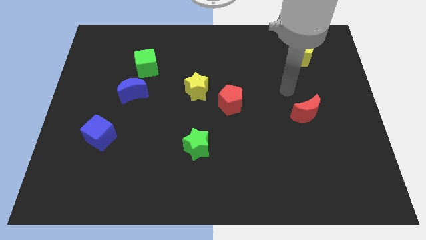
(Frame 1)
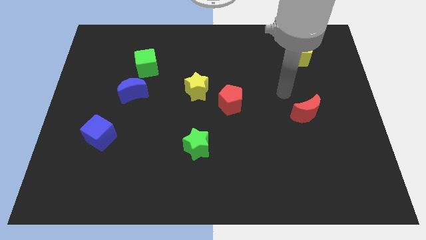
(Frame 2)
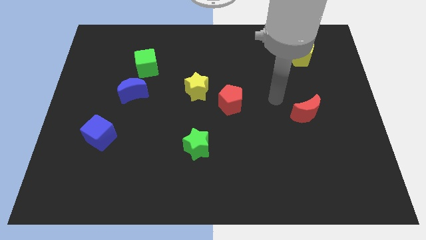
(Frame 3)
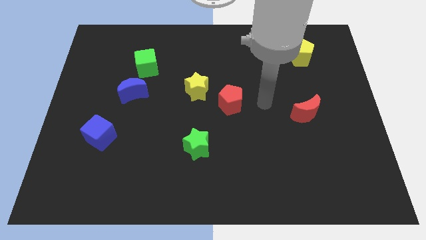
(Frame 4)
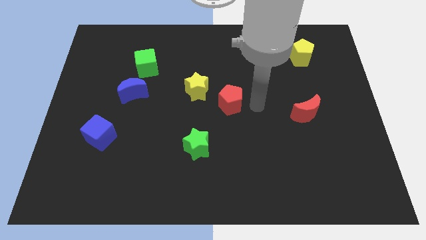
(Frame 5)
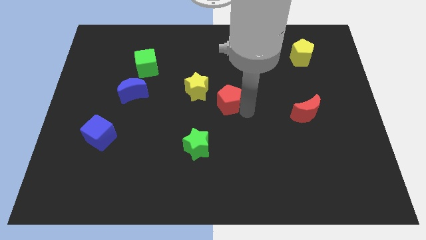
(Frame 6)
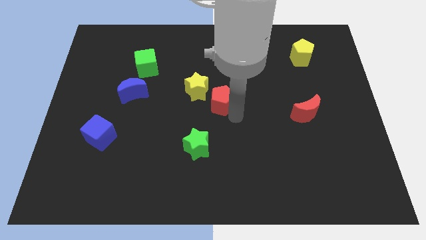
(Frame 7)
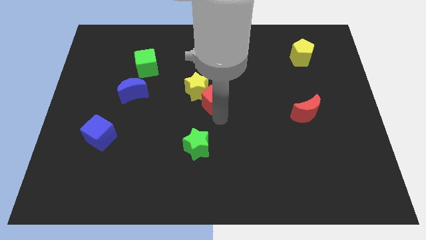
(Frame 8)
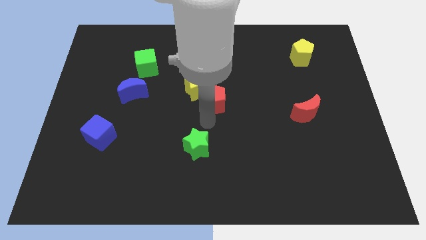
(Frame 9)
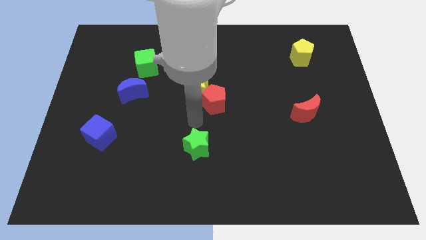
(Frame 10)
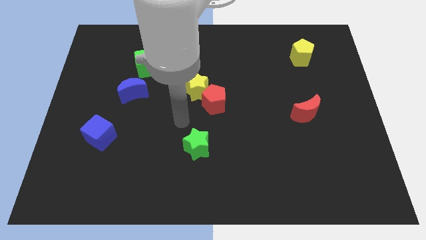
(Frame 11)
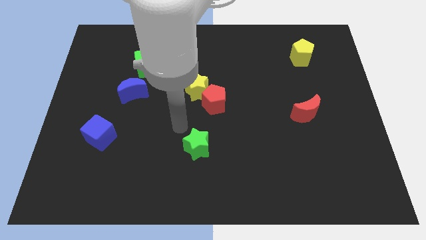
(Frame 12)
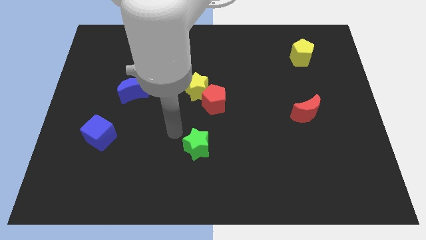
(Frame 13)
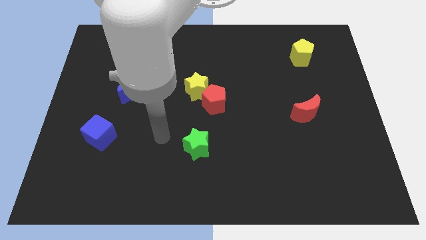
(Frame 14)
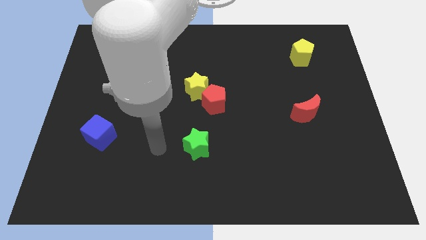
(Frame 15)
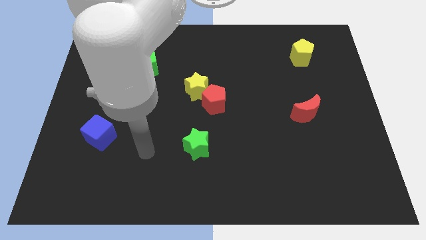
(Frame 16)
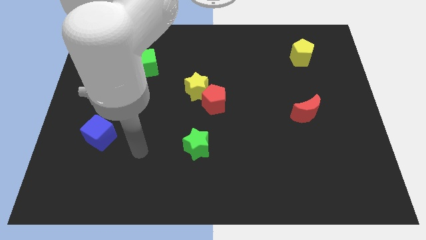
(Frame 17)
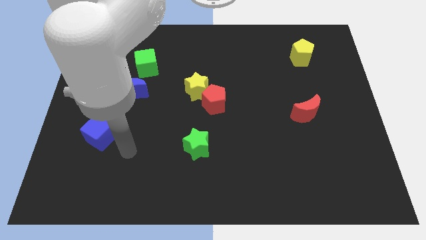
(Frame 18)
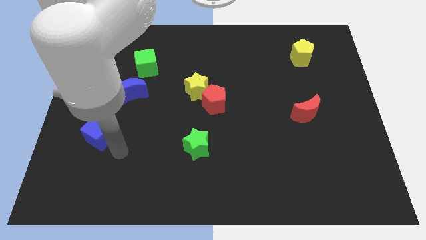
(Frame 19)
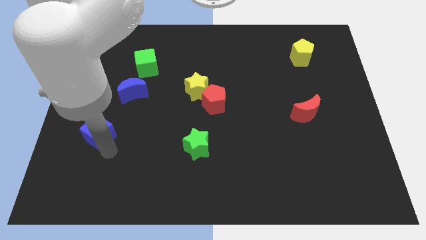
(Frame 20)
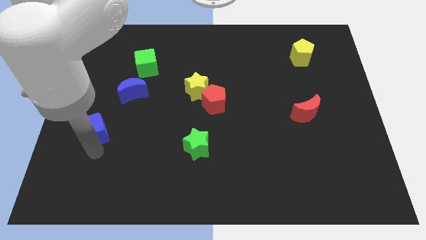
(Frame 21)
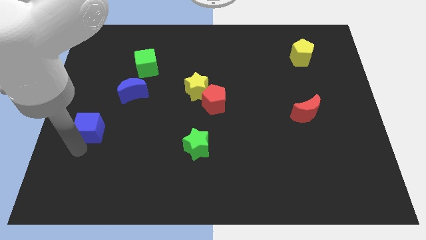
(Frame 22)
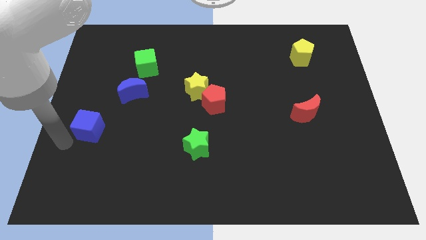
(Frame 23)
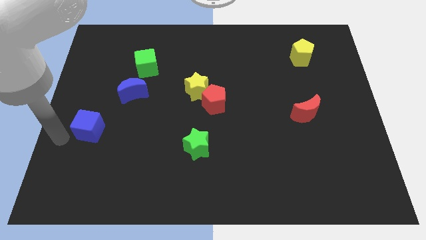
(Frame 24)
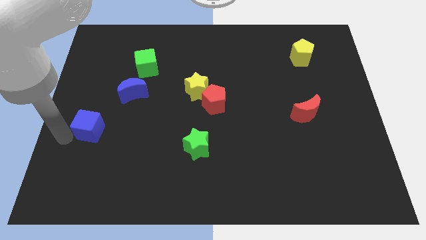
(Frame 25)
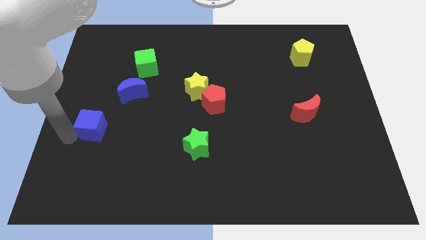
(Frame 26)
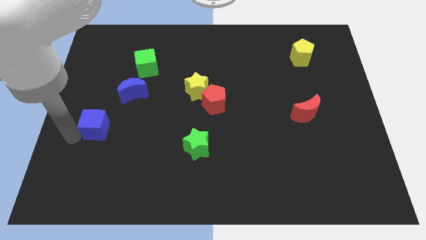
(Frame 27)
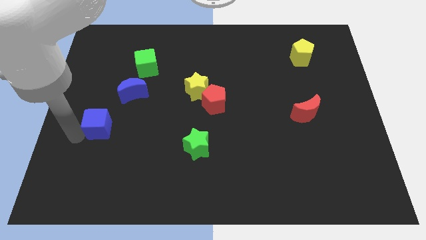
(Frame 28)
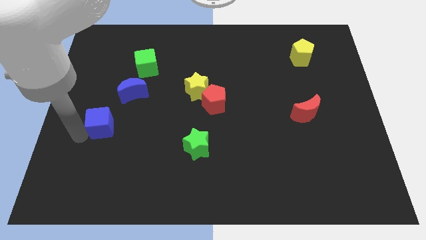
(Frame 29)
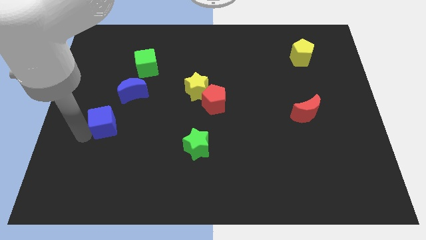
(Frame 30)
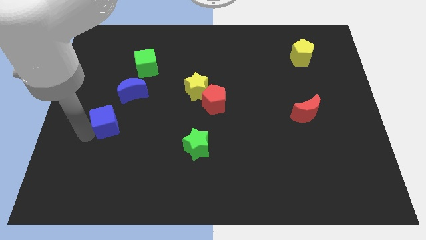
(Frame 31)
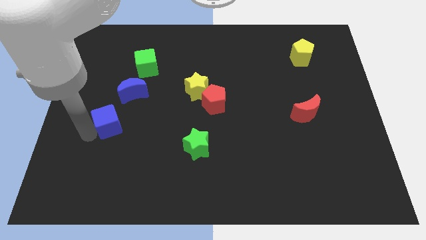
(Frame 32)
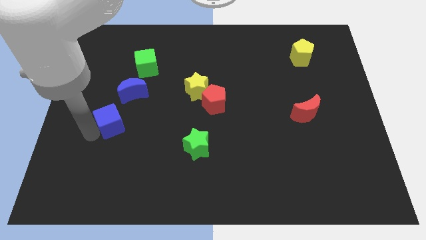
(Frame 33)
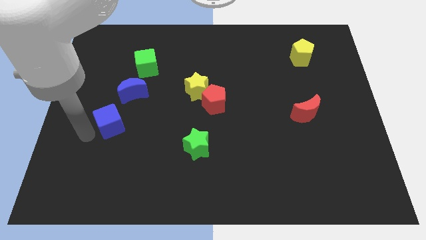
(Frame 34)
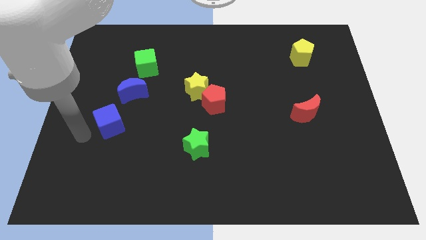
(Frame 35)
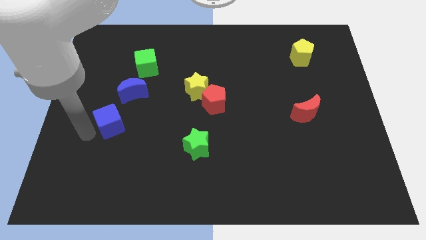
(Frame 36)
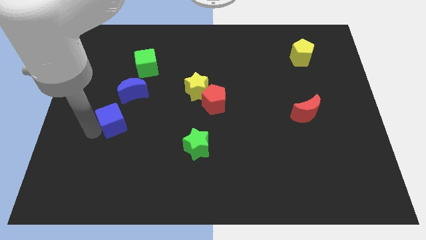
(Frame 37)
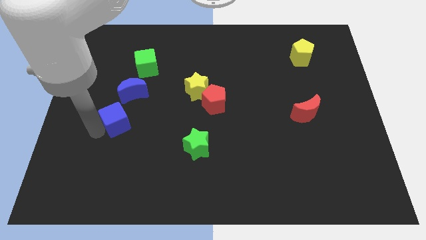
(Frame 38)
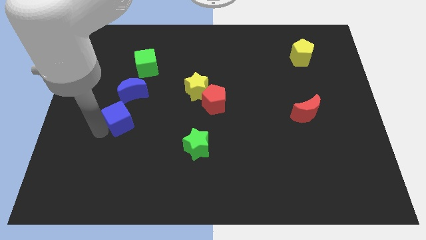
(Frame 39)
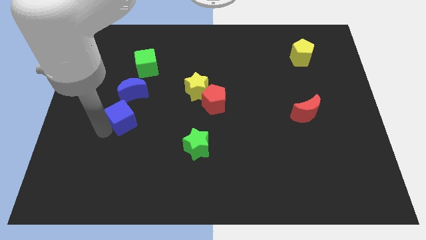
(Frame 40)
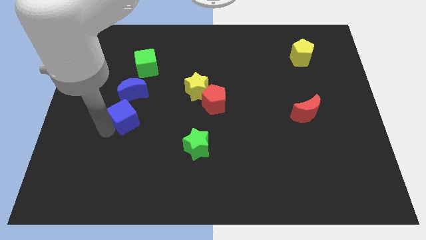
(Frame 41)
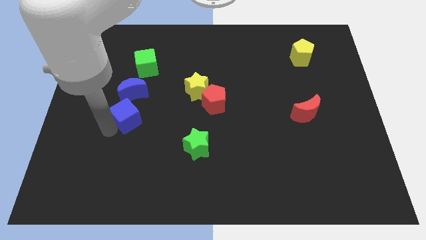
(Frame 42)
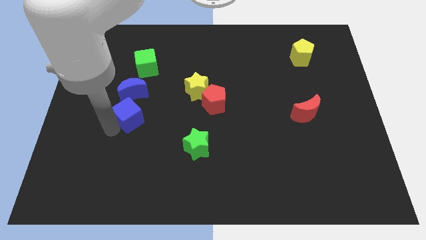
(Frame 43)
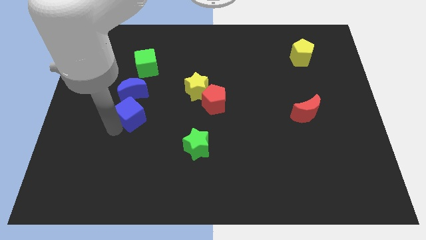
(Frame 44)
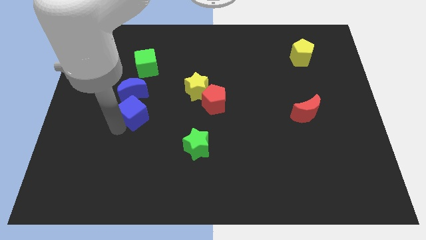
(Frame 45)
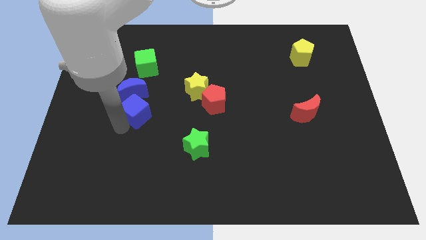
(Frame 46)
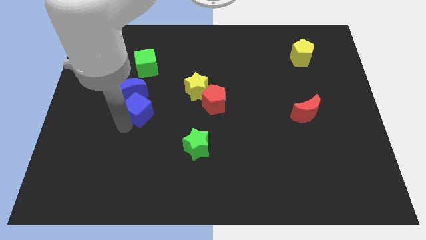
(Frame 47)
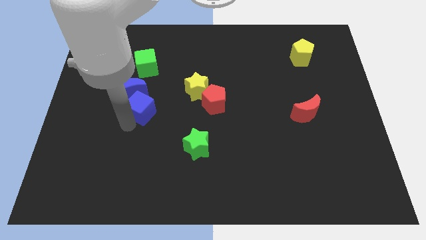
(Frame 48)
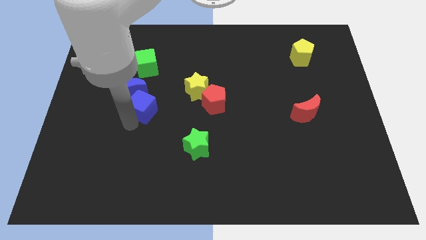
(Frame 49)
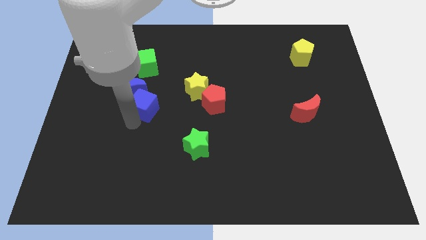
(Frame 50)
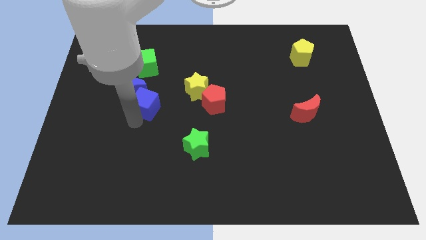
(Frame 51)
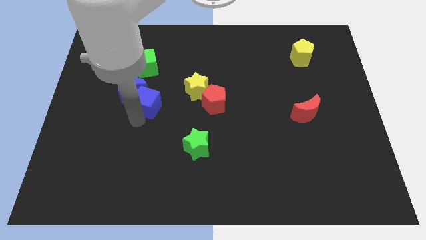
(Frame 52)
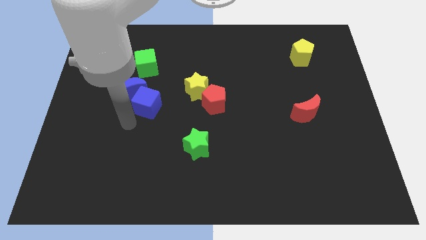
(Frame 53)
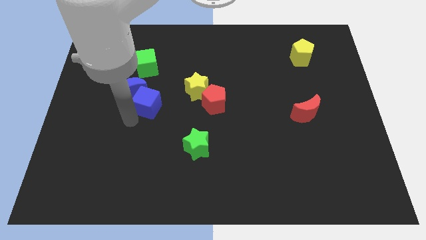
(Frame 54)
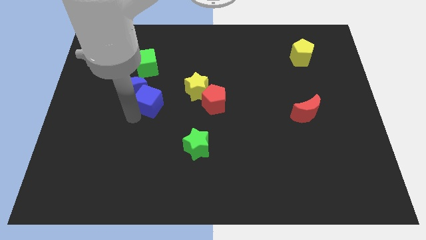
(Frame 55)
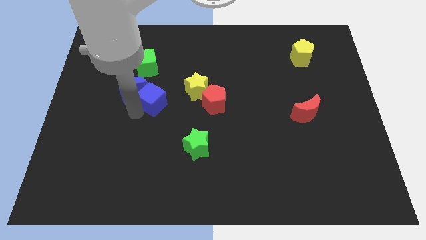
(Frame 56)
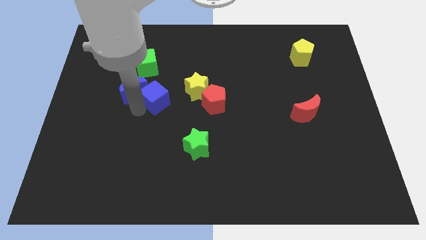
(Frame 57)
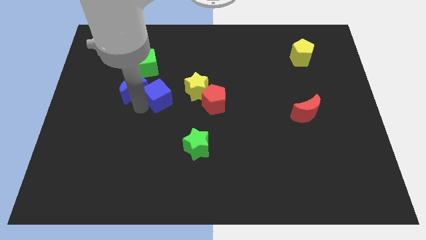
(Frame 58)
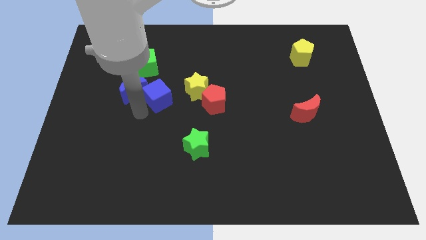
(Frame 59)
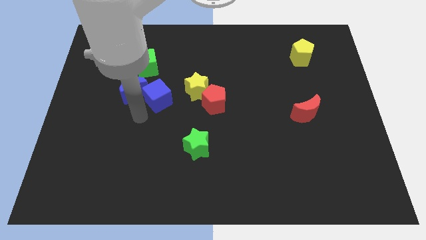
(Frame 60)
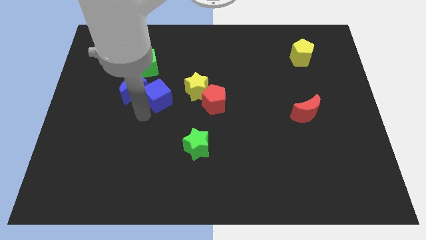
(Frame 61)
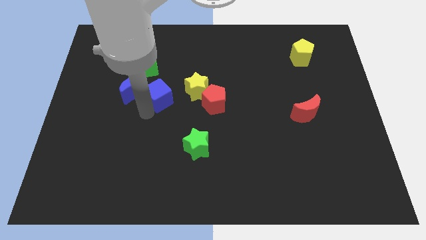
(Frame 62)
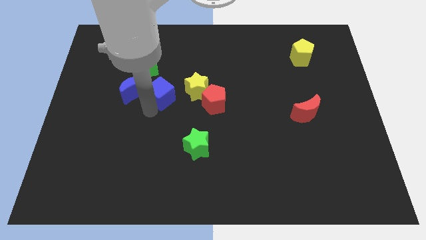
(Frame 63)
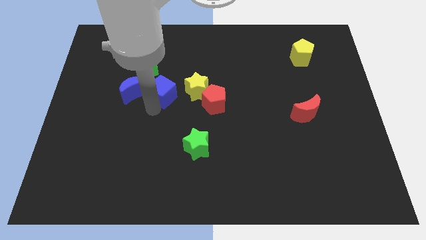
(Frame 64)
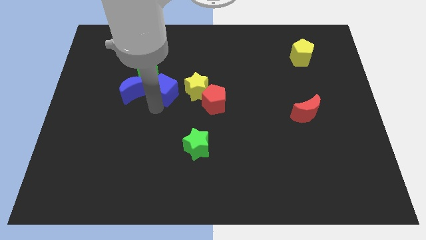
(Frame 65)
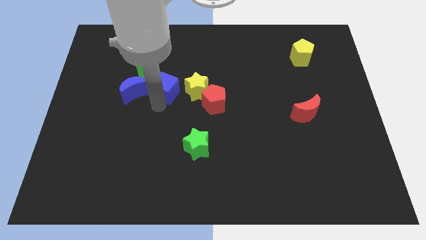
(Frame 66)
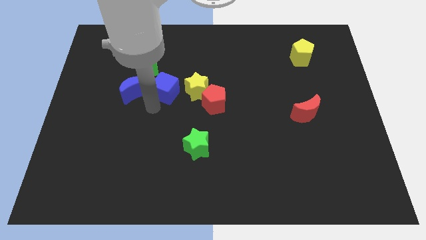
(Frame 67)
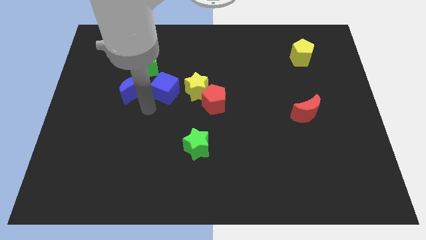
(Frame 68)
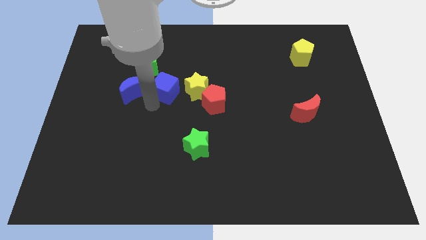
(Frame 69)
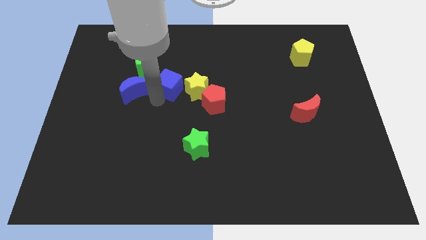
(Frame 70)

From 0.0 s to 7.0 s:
move the blue cube upwards and then to the right

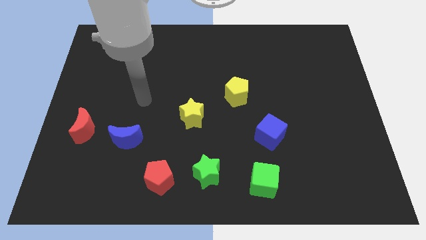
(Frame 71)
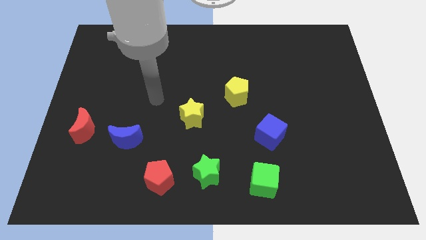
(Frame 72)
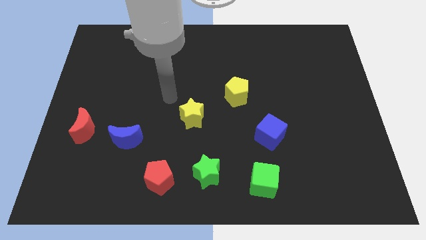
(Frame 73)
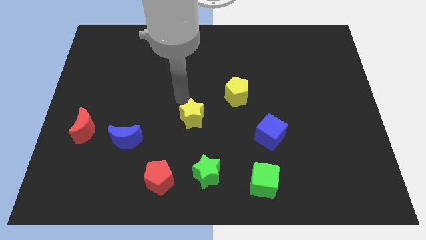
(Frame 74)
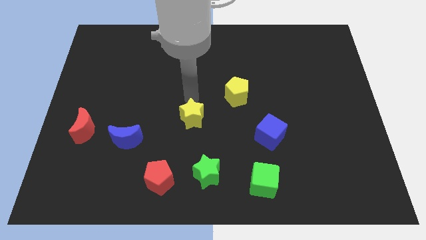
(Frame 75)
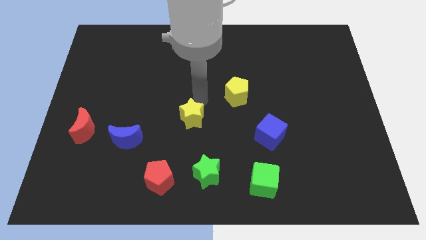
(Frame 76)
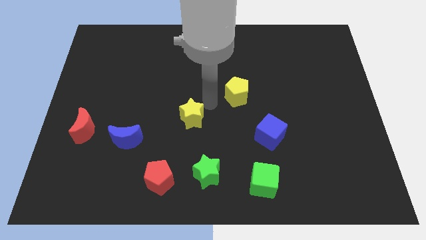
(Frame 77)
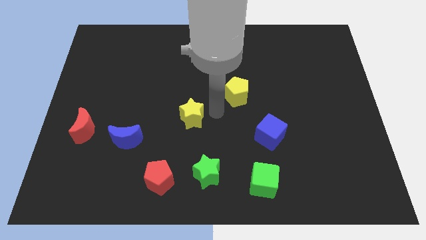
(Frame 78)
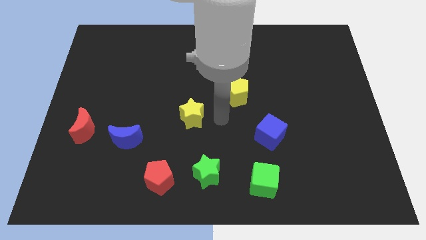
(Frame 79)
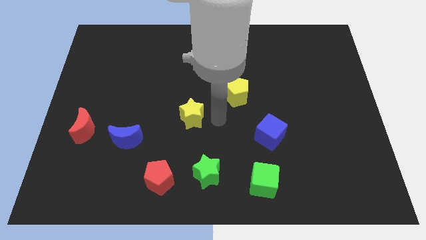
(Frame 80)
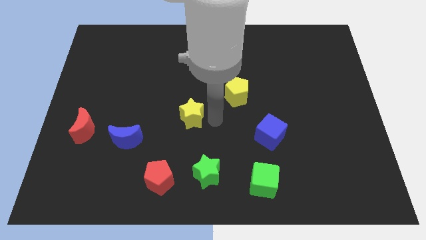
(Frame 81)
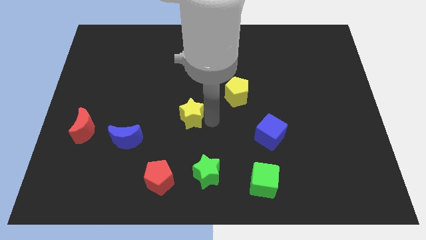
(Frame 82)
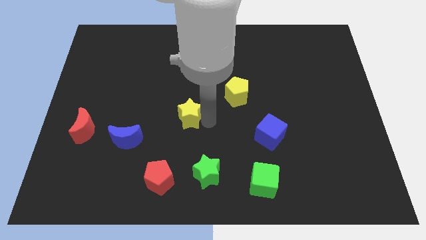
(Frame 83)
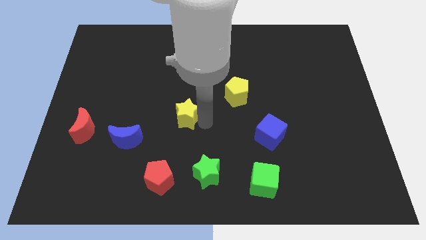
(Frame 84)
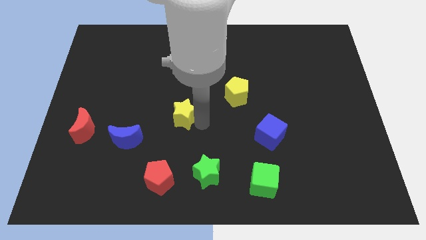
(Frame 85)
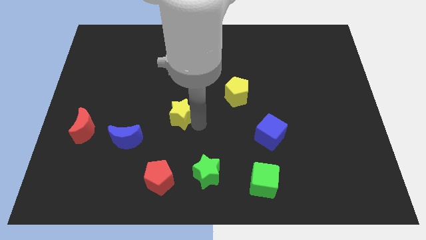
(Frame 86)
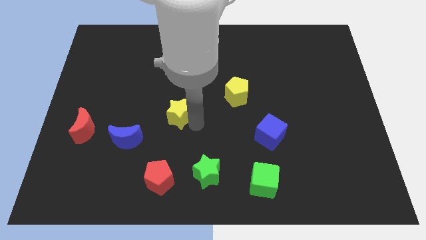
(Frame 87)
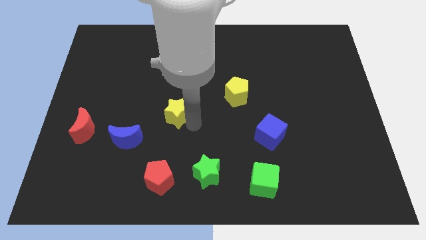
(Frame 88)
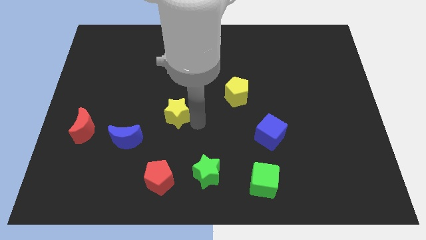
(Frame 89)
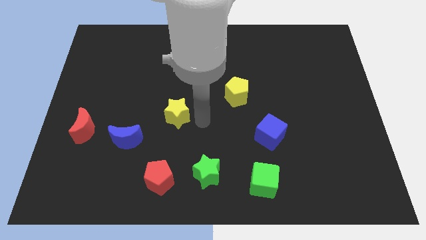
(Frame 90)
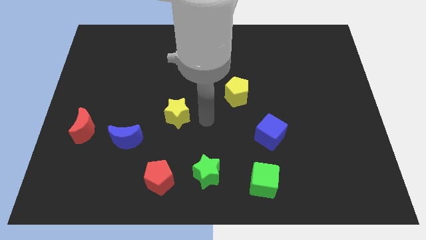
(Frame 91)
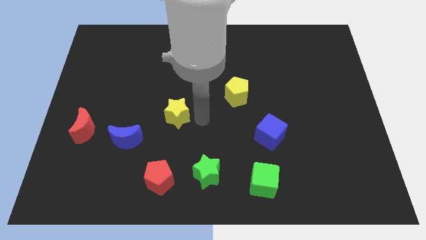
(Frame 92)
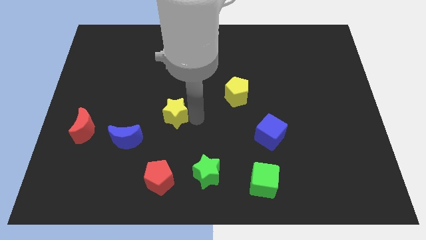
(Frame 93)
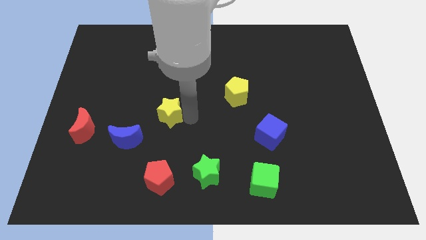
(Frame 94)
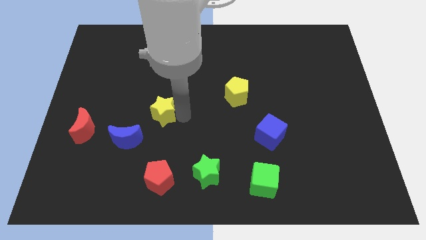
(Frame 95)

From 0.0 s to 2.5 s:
slide the yellow star slightly to the left
